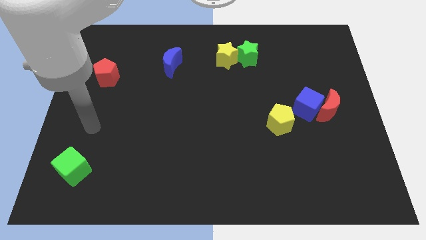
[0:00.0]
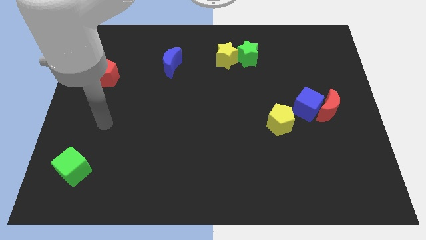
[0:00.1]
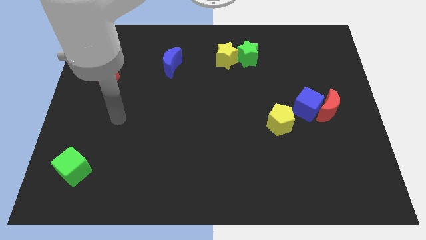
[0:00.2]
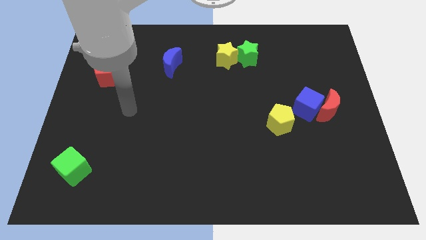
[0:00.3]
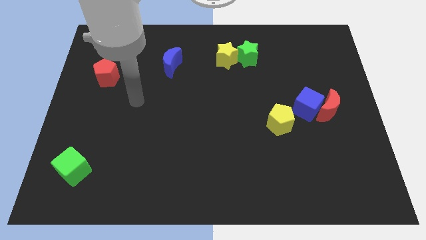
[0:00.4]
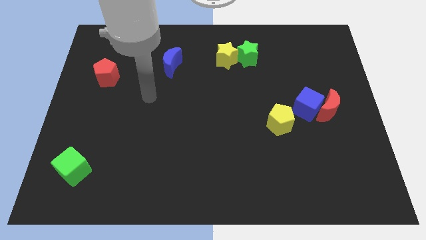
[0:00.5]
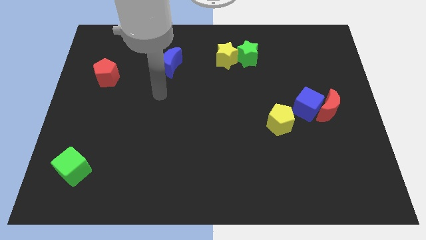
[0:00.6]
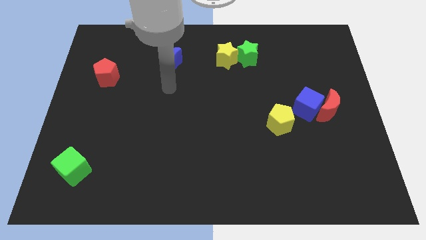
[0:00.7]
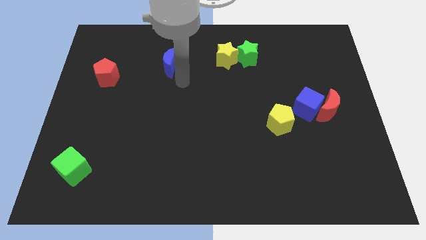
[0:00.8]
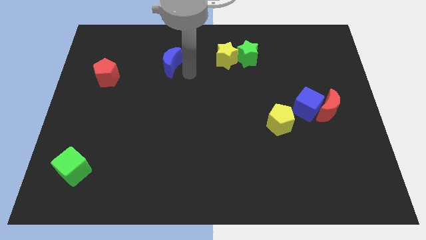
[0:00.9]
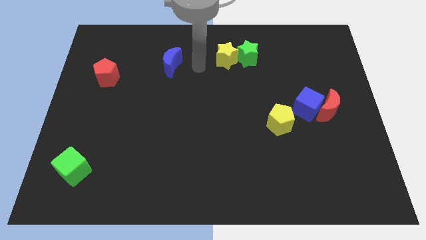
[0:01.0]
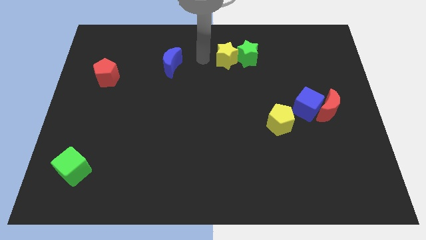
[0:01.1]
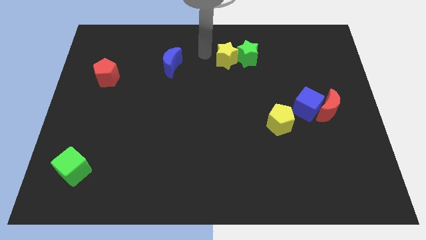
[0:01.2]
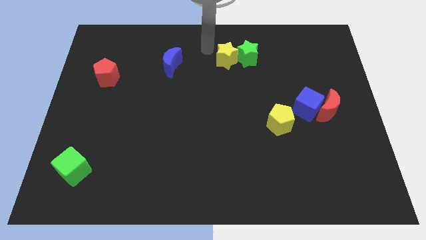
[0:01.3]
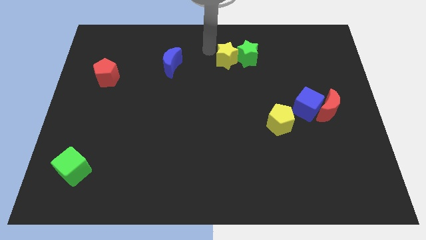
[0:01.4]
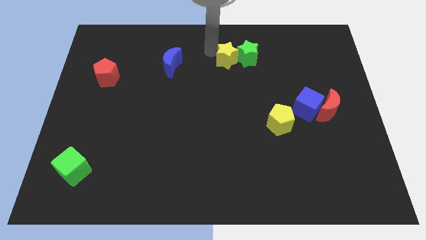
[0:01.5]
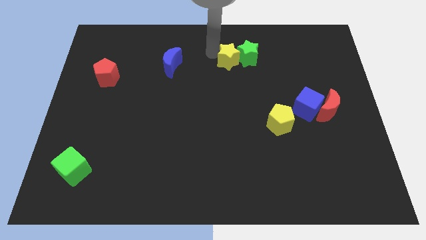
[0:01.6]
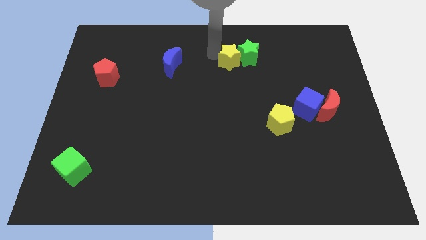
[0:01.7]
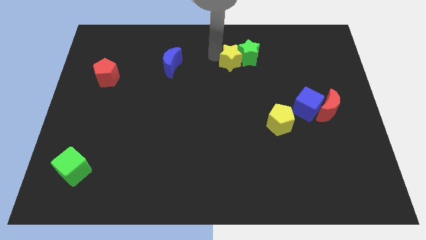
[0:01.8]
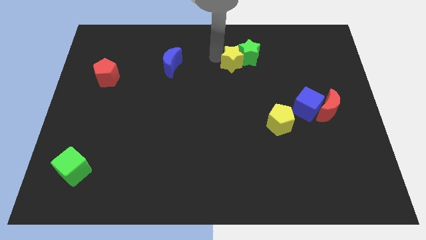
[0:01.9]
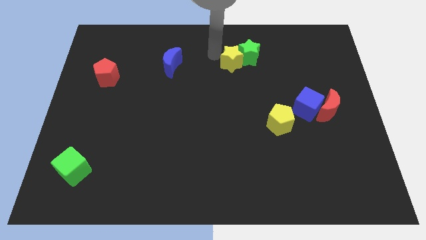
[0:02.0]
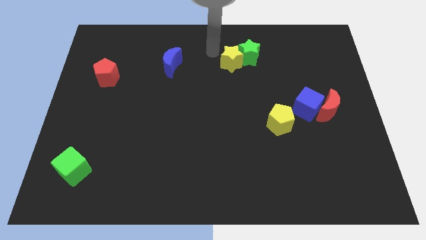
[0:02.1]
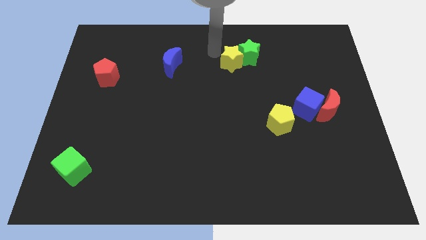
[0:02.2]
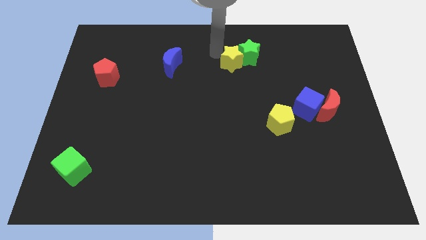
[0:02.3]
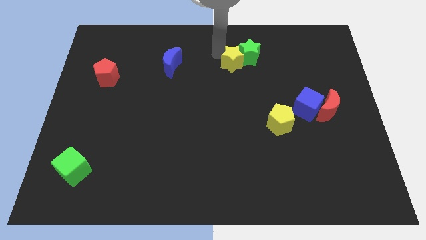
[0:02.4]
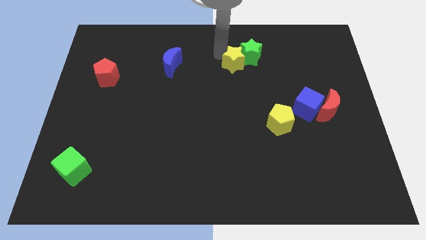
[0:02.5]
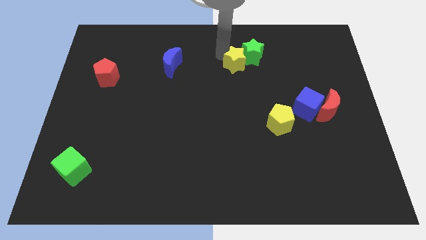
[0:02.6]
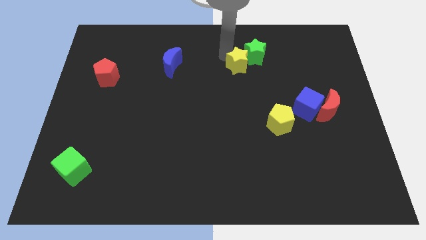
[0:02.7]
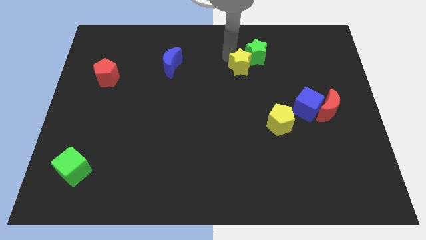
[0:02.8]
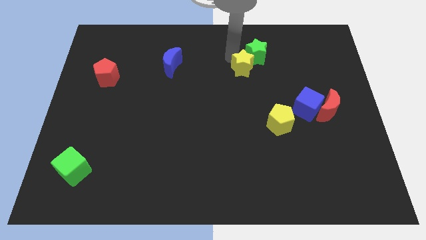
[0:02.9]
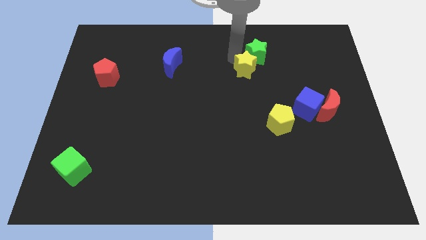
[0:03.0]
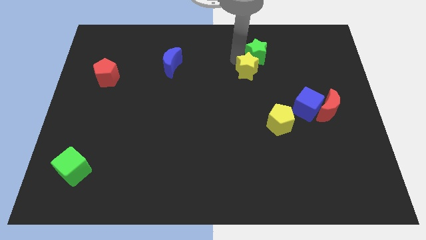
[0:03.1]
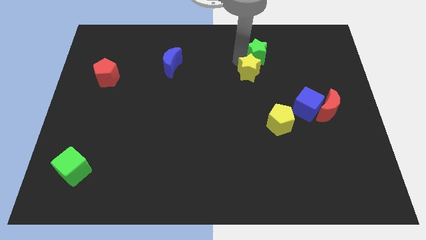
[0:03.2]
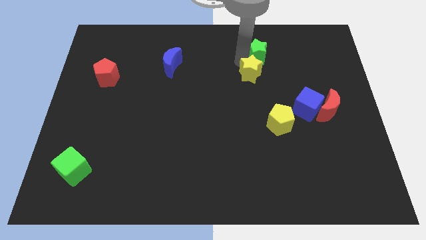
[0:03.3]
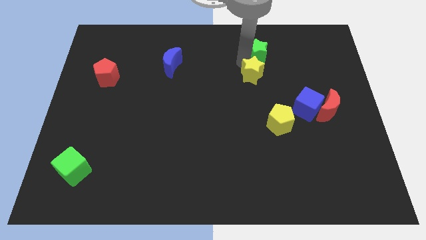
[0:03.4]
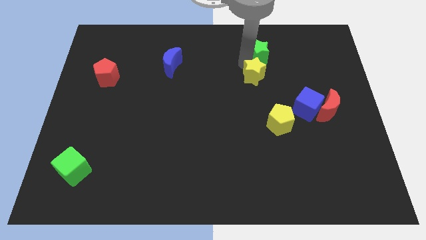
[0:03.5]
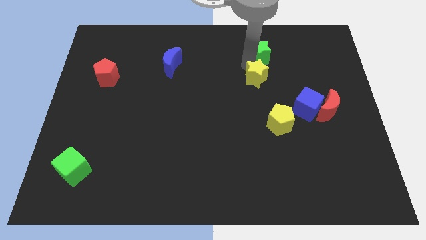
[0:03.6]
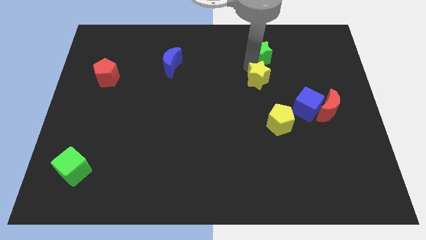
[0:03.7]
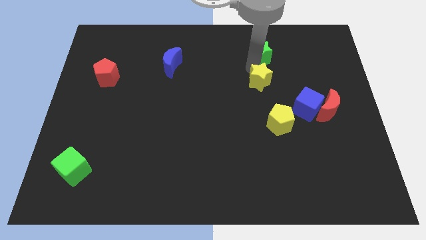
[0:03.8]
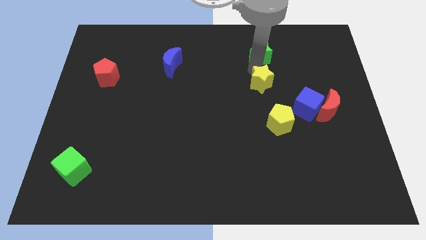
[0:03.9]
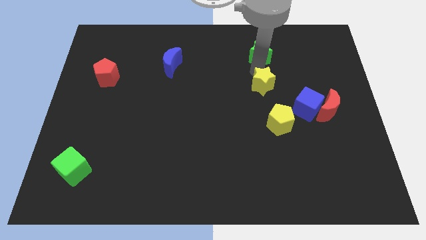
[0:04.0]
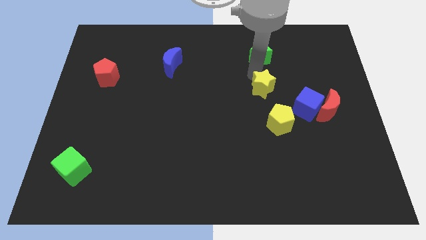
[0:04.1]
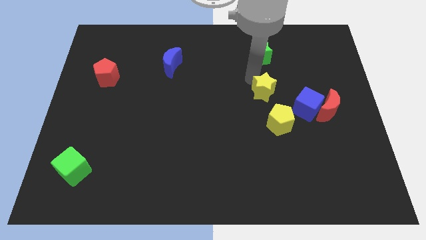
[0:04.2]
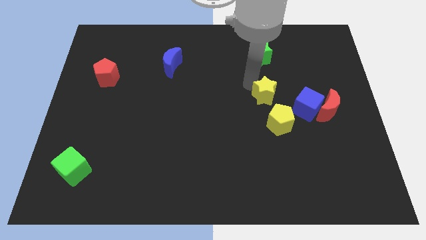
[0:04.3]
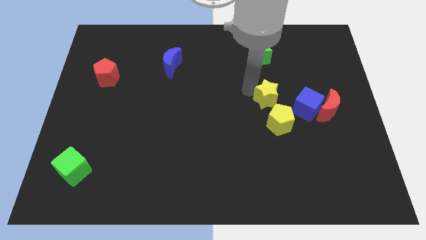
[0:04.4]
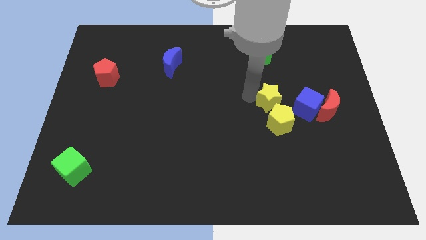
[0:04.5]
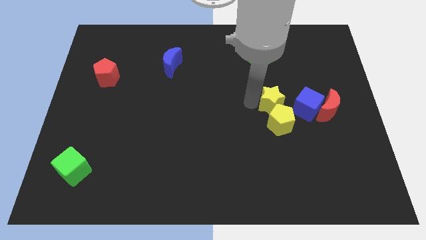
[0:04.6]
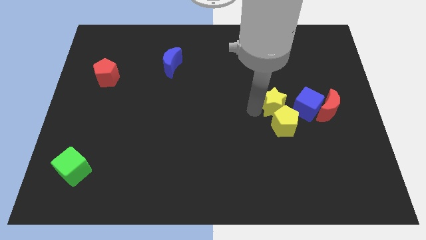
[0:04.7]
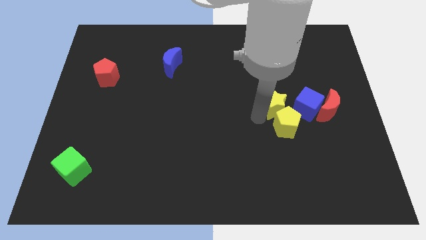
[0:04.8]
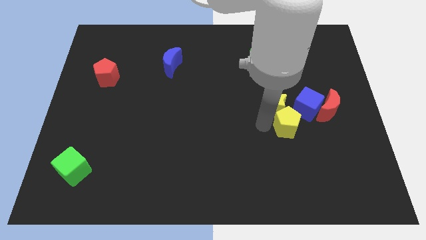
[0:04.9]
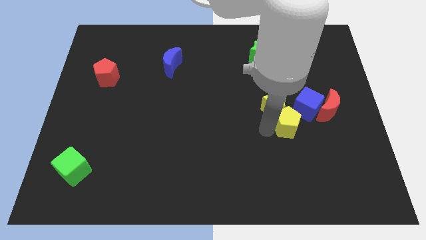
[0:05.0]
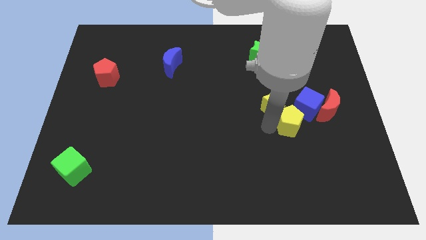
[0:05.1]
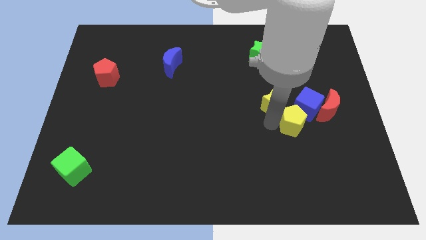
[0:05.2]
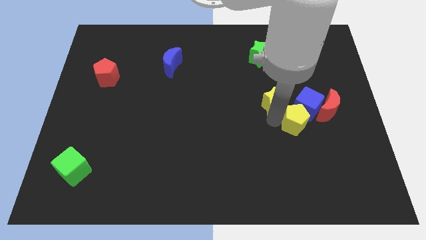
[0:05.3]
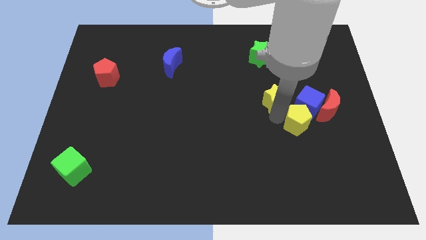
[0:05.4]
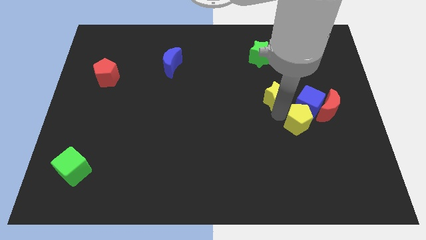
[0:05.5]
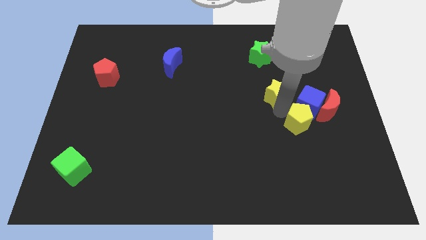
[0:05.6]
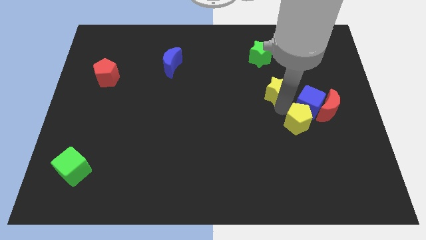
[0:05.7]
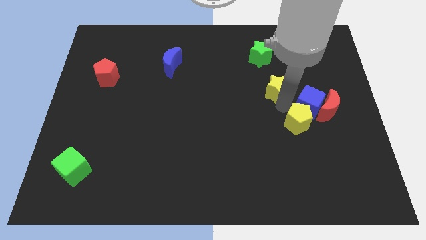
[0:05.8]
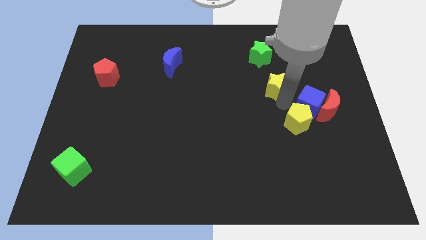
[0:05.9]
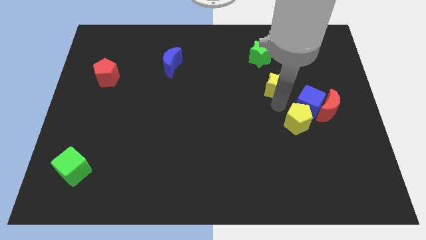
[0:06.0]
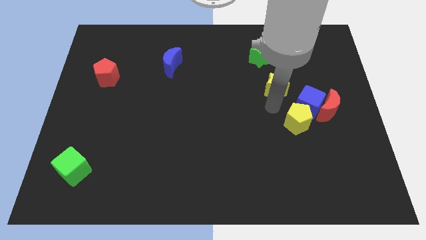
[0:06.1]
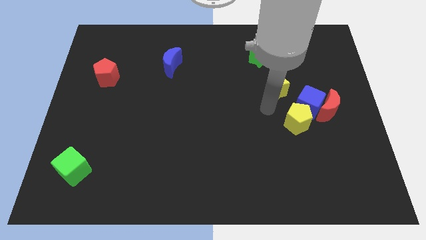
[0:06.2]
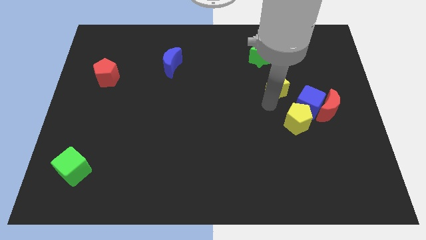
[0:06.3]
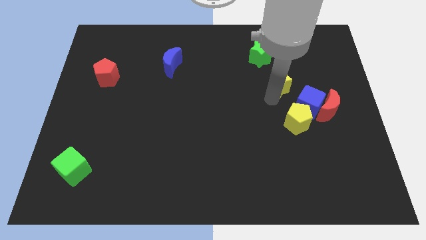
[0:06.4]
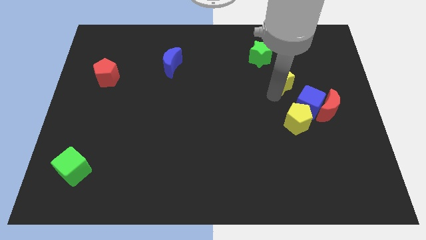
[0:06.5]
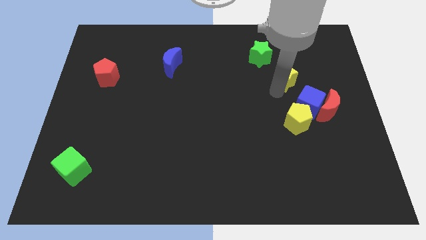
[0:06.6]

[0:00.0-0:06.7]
move the yellow star to the top of the blue cube

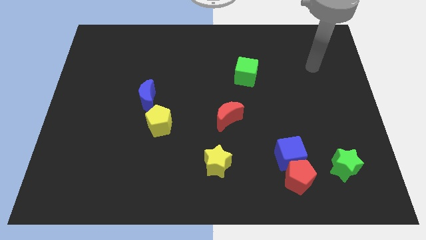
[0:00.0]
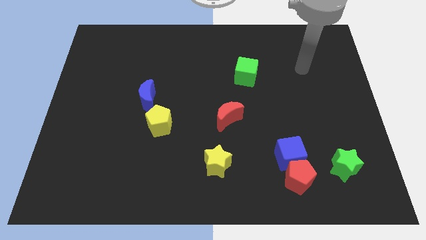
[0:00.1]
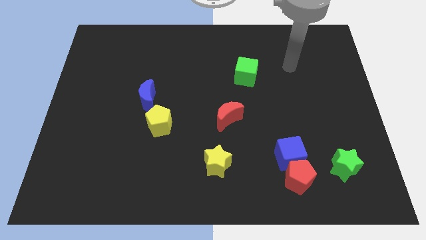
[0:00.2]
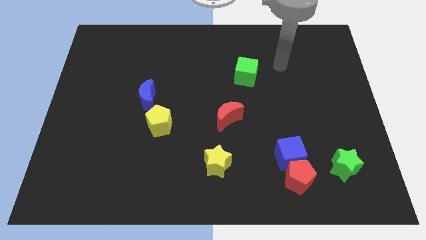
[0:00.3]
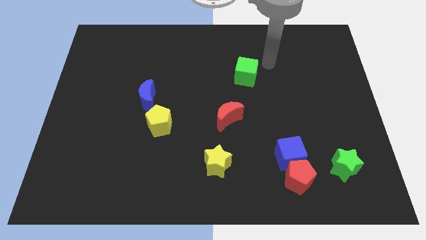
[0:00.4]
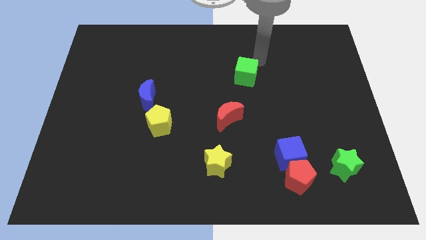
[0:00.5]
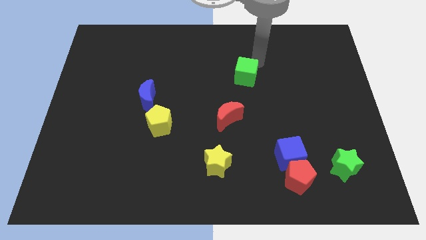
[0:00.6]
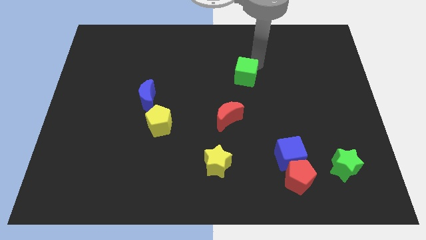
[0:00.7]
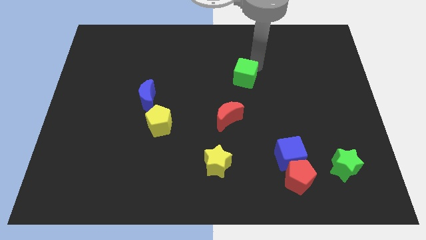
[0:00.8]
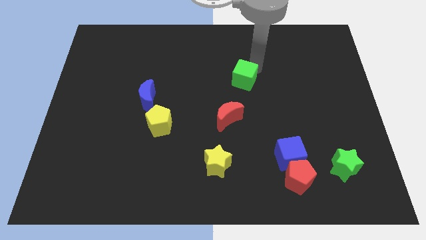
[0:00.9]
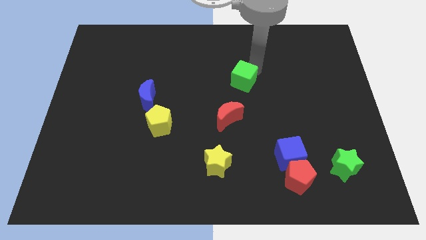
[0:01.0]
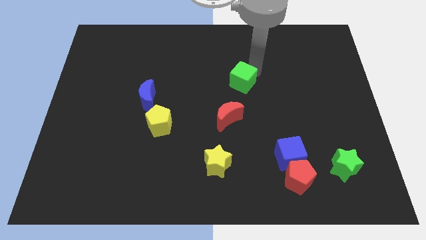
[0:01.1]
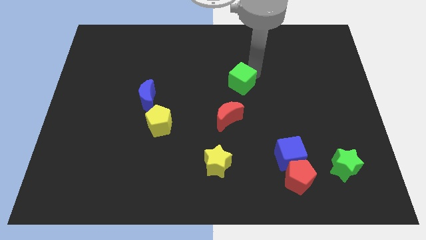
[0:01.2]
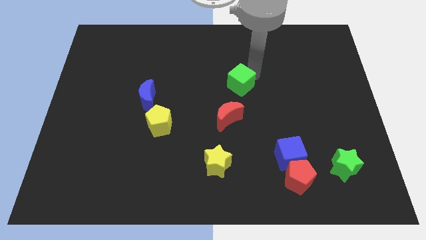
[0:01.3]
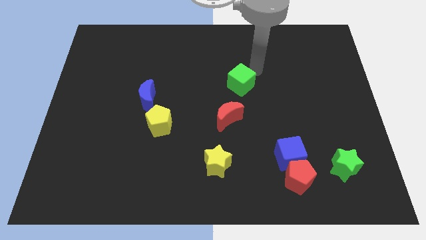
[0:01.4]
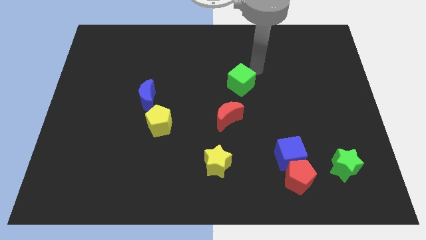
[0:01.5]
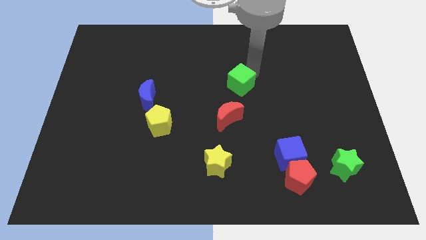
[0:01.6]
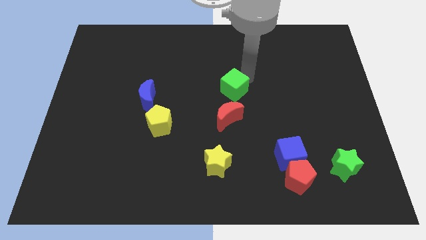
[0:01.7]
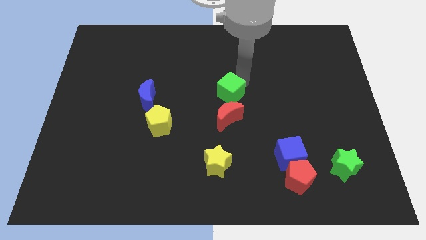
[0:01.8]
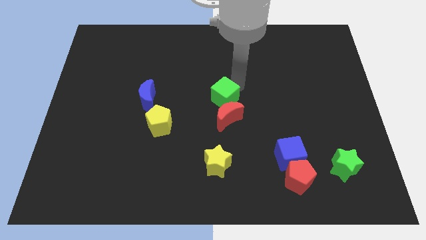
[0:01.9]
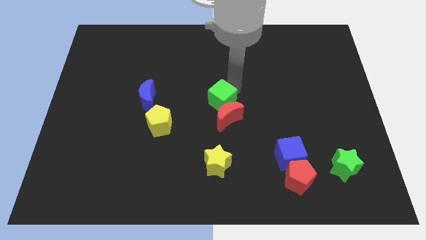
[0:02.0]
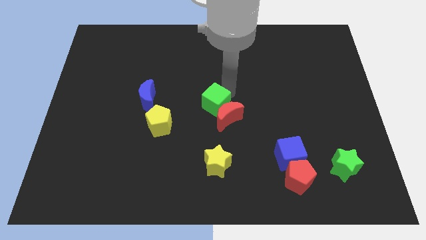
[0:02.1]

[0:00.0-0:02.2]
slide the green cube to the top of the yellow star
